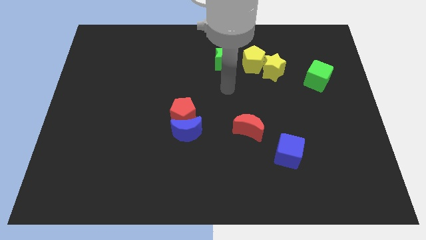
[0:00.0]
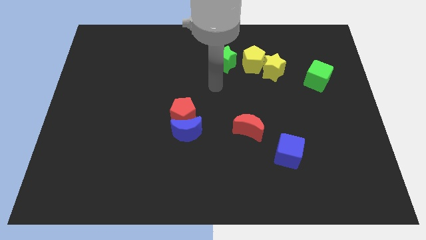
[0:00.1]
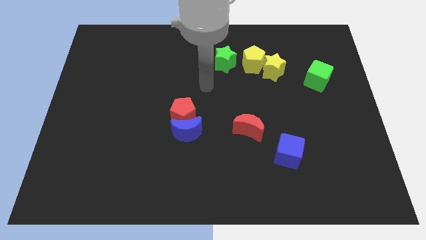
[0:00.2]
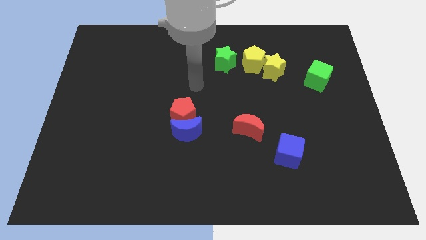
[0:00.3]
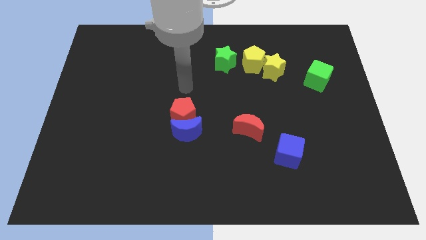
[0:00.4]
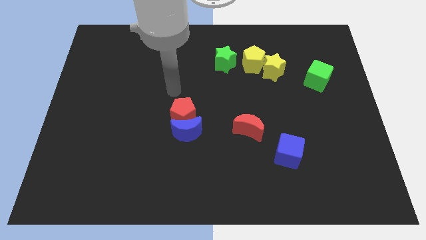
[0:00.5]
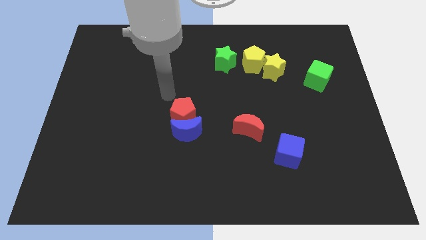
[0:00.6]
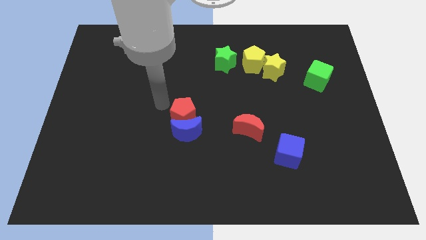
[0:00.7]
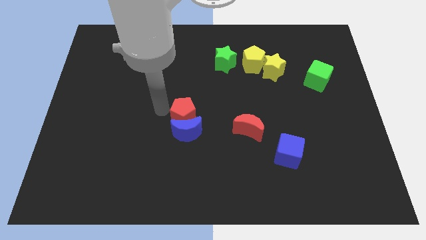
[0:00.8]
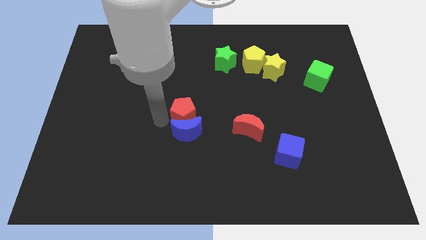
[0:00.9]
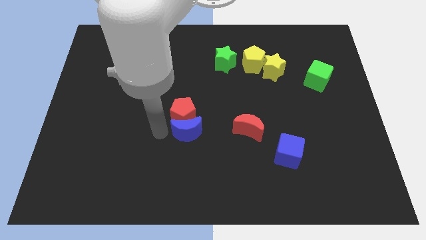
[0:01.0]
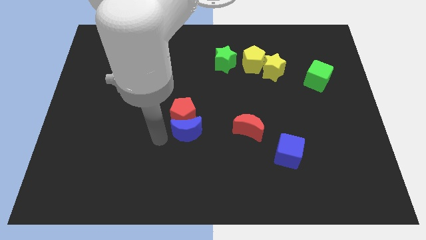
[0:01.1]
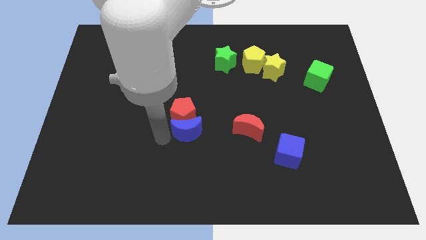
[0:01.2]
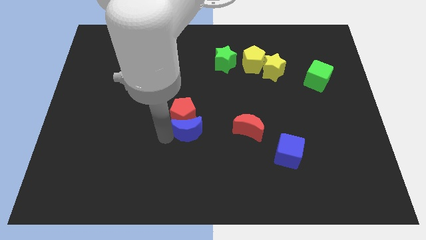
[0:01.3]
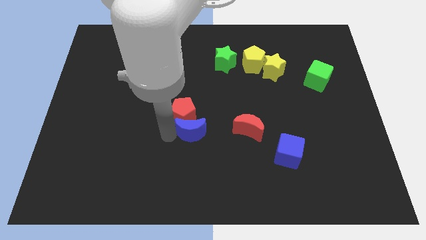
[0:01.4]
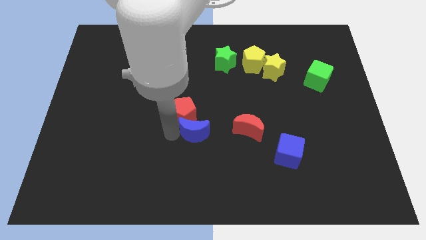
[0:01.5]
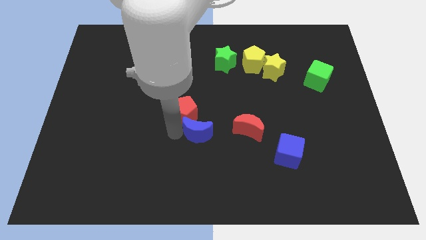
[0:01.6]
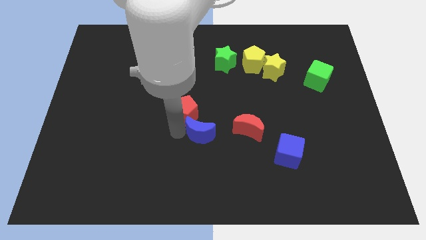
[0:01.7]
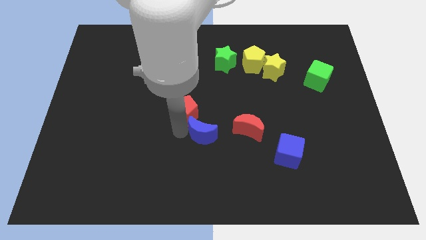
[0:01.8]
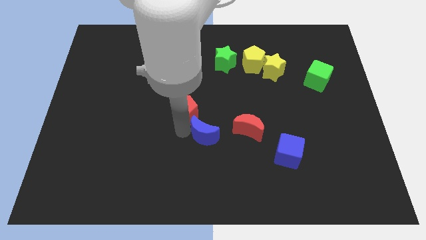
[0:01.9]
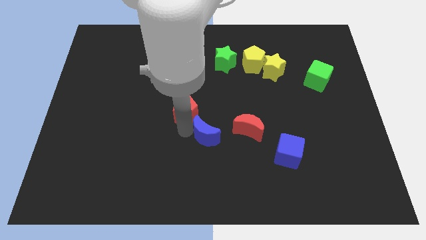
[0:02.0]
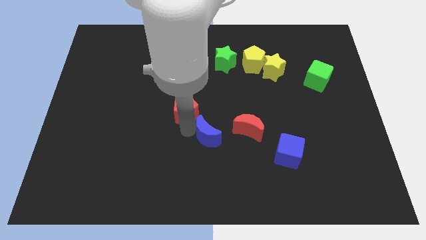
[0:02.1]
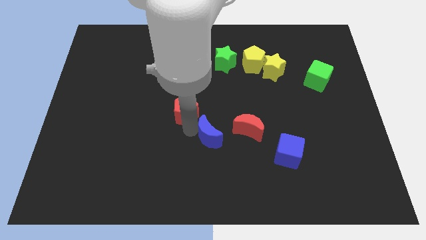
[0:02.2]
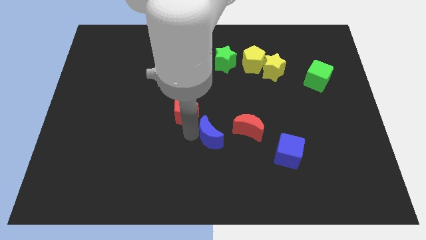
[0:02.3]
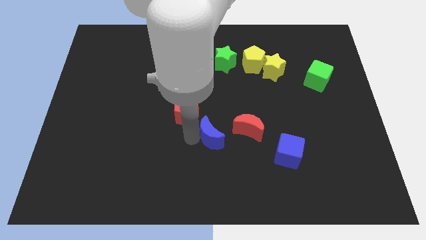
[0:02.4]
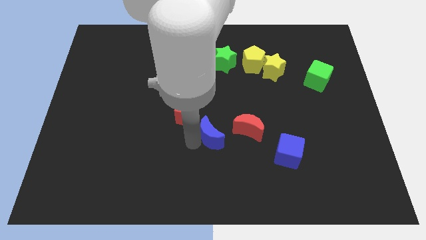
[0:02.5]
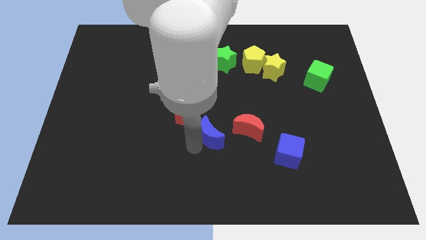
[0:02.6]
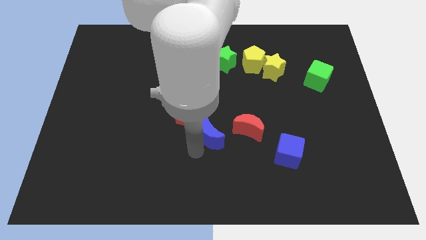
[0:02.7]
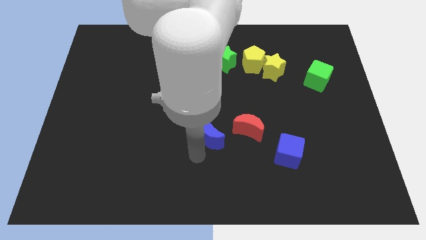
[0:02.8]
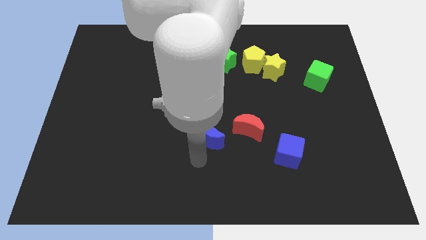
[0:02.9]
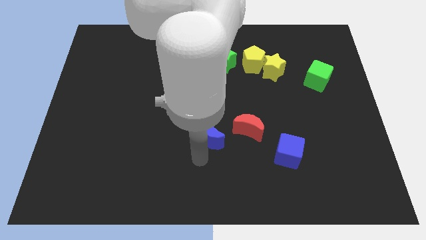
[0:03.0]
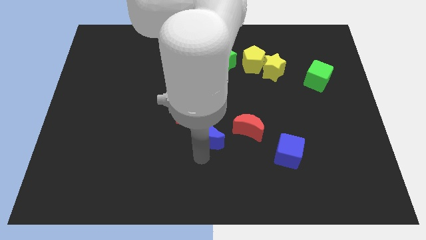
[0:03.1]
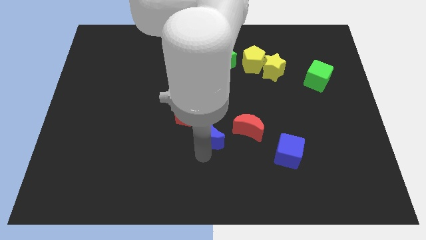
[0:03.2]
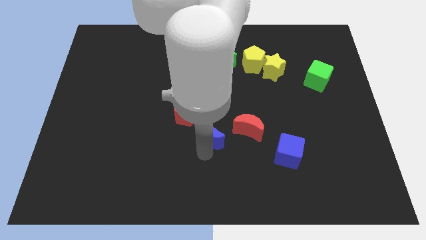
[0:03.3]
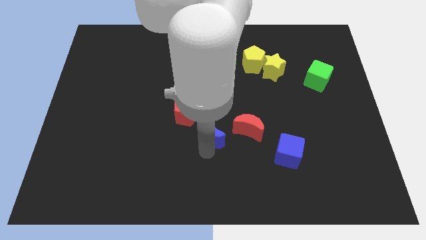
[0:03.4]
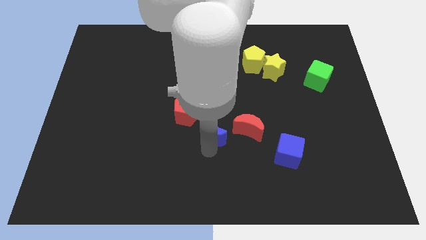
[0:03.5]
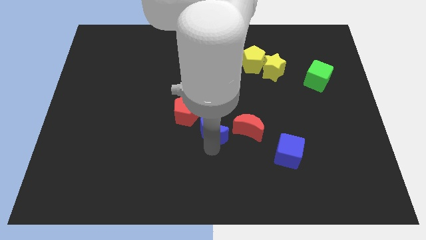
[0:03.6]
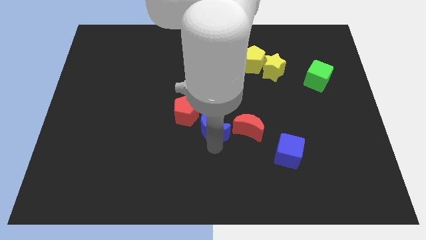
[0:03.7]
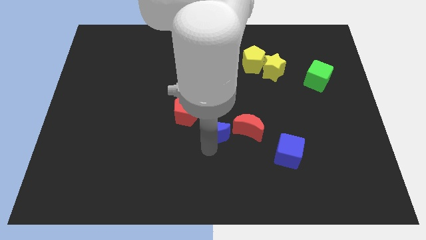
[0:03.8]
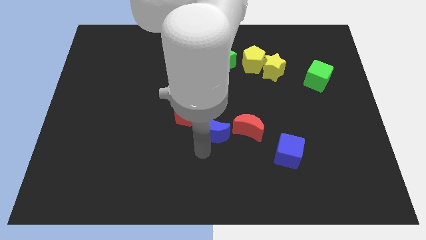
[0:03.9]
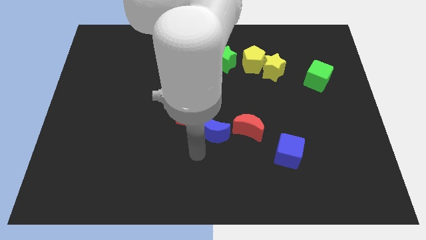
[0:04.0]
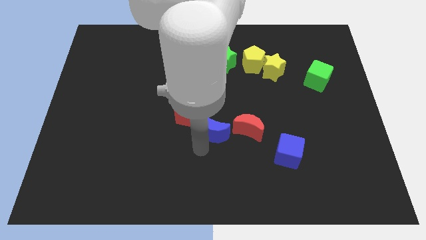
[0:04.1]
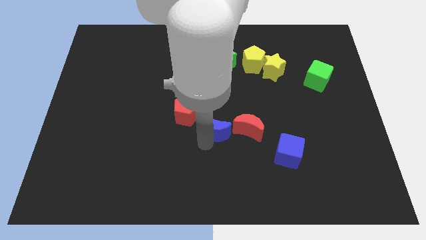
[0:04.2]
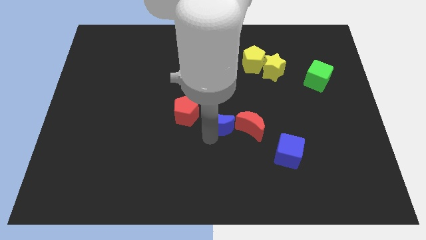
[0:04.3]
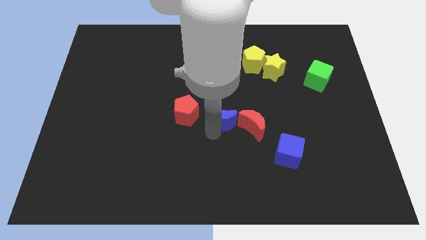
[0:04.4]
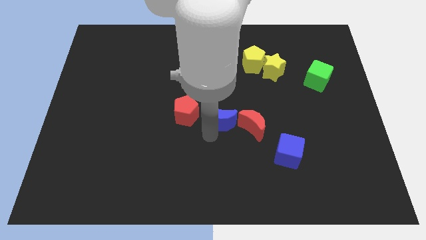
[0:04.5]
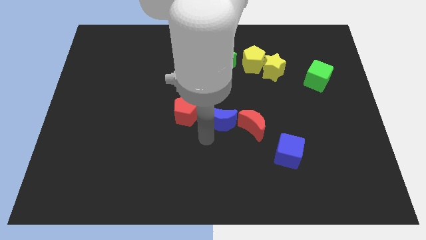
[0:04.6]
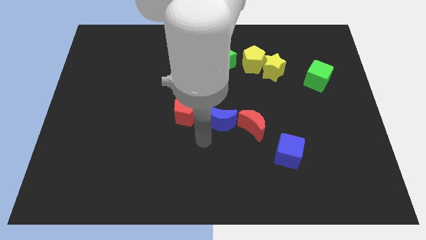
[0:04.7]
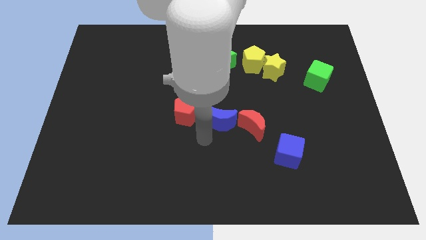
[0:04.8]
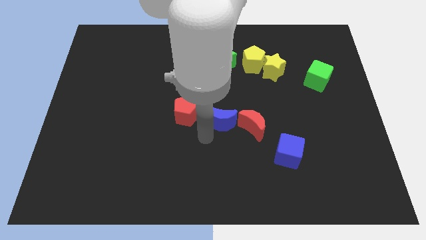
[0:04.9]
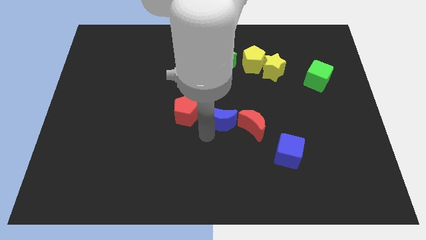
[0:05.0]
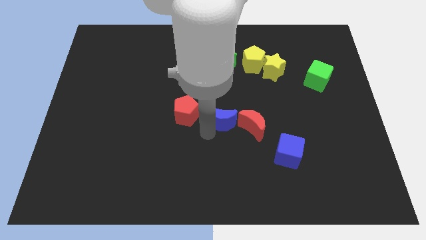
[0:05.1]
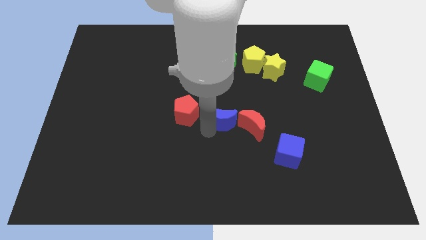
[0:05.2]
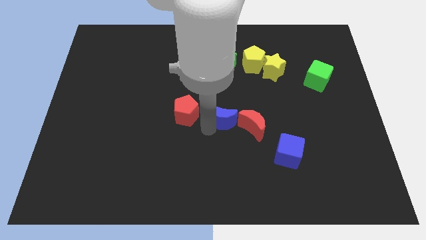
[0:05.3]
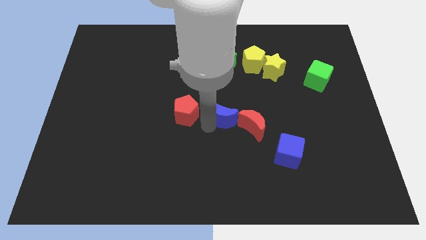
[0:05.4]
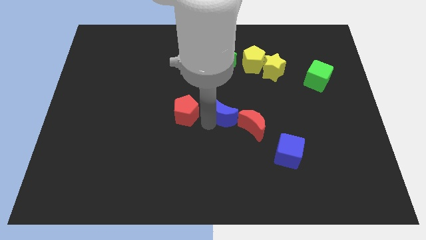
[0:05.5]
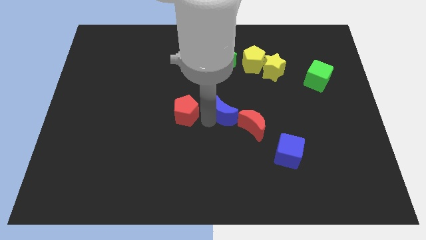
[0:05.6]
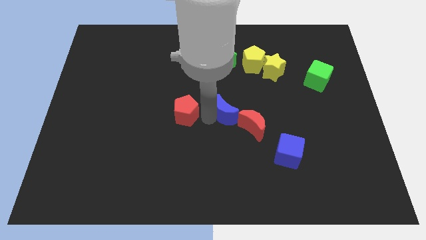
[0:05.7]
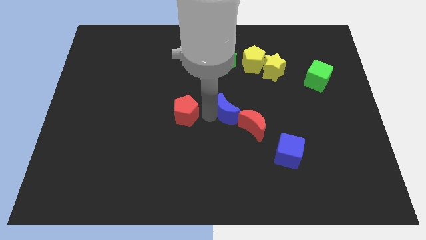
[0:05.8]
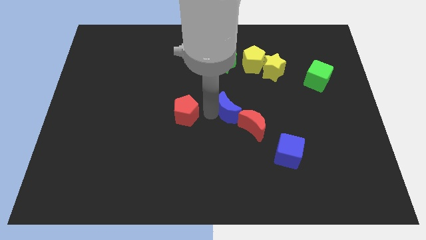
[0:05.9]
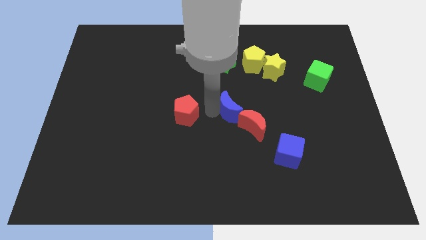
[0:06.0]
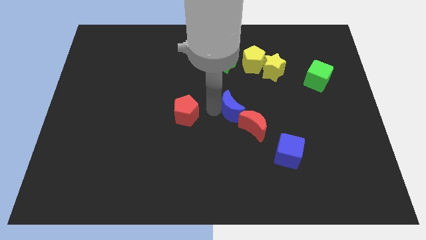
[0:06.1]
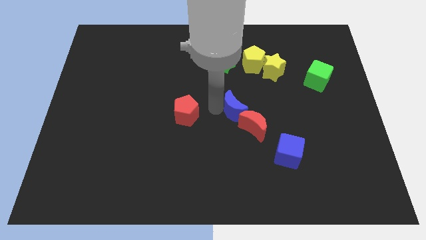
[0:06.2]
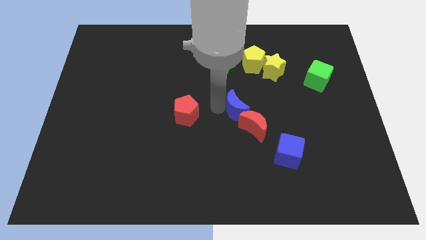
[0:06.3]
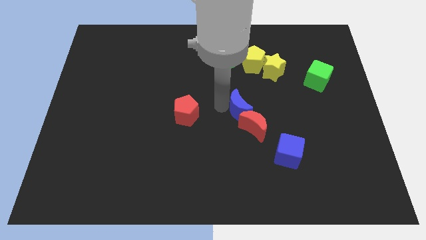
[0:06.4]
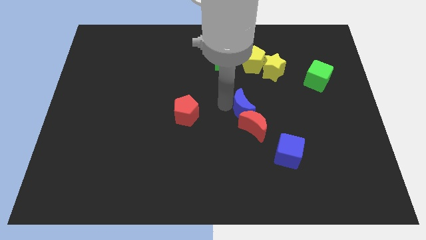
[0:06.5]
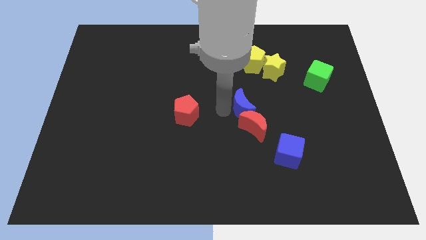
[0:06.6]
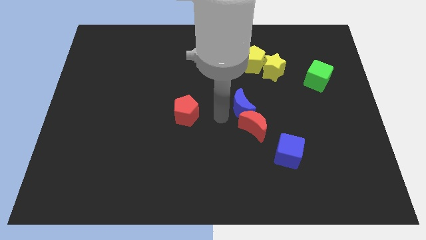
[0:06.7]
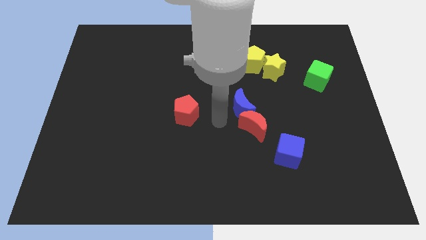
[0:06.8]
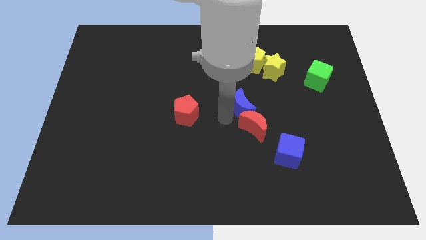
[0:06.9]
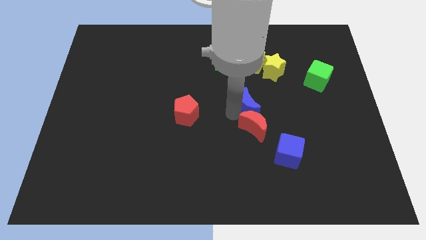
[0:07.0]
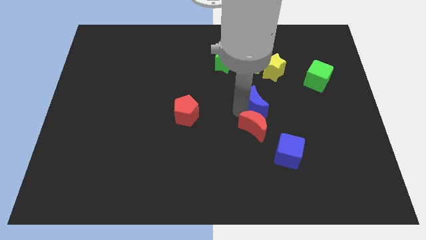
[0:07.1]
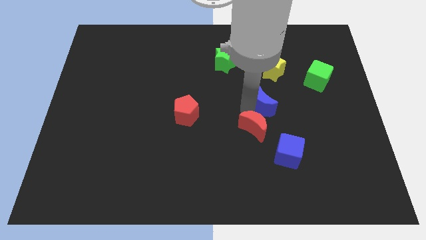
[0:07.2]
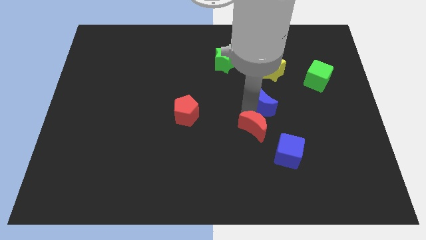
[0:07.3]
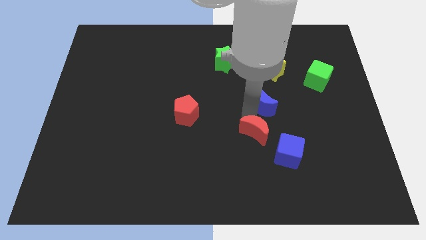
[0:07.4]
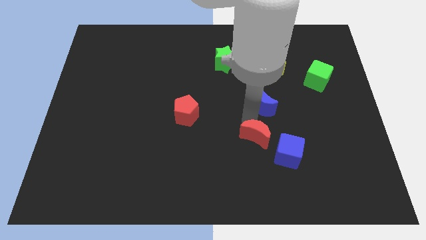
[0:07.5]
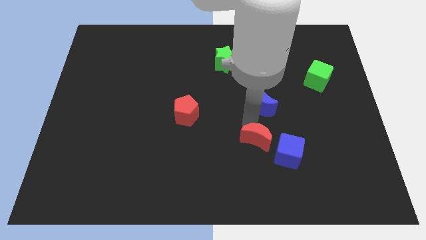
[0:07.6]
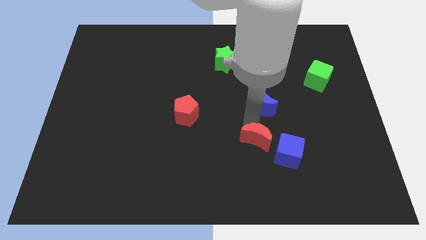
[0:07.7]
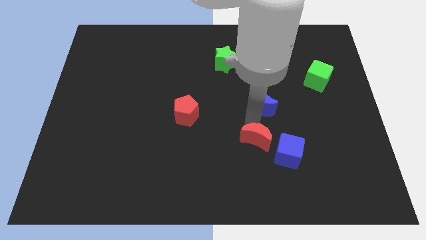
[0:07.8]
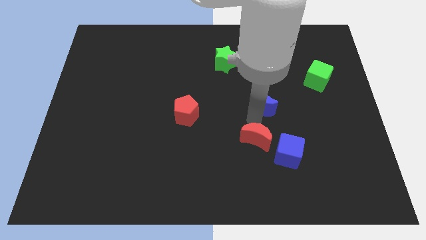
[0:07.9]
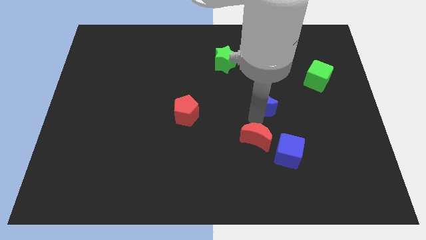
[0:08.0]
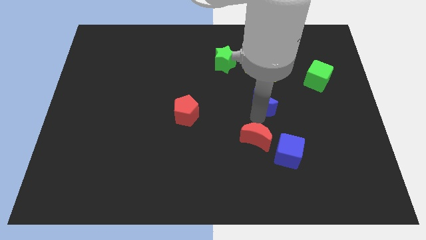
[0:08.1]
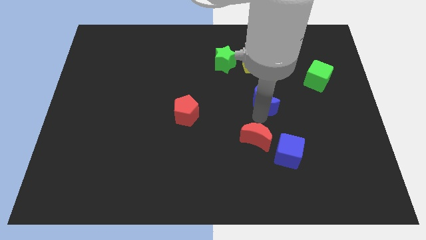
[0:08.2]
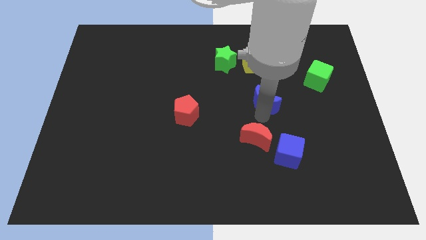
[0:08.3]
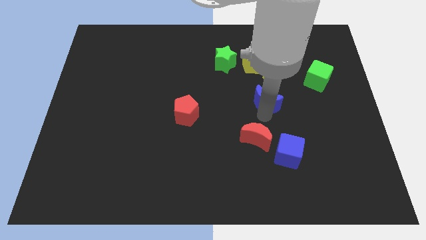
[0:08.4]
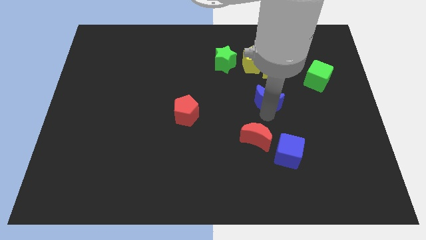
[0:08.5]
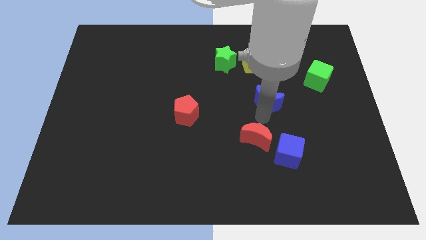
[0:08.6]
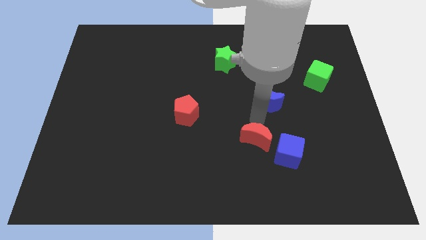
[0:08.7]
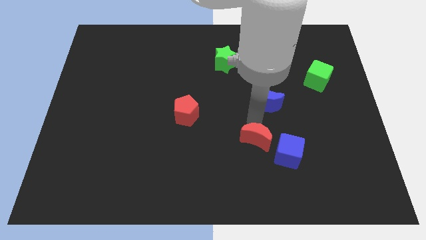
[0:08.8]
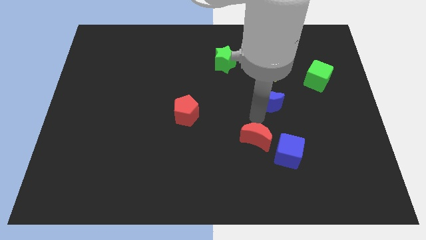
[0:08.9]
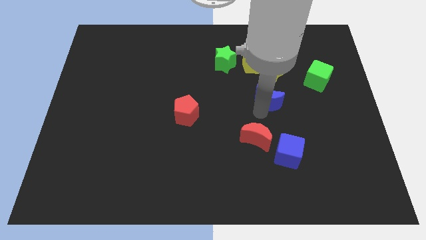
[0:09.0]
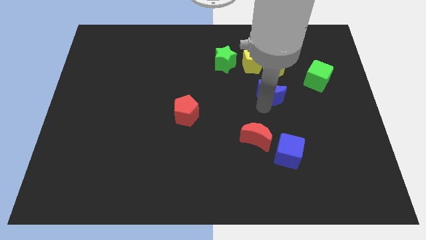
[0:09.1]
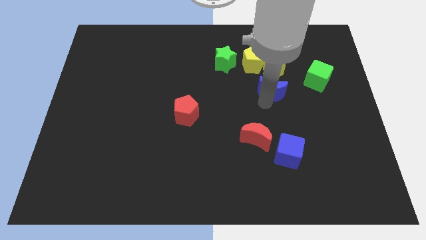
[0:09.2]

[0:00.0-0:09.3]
move the blue moon up and right
